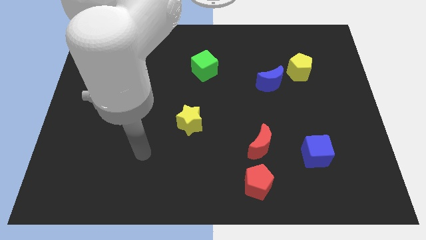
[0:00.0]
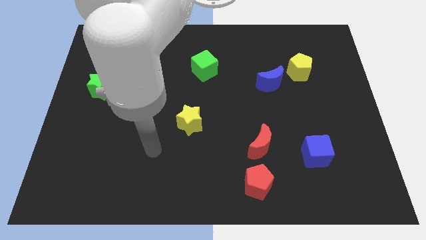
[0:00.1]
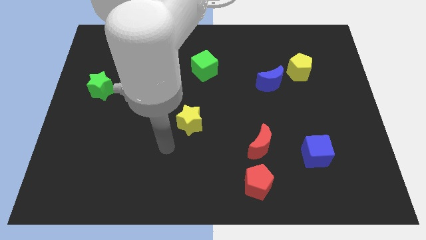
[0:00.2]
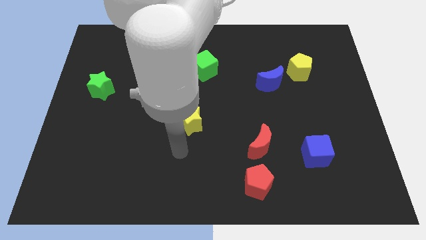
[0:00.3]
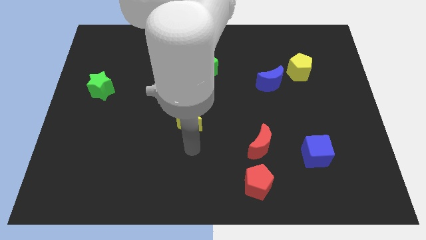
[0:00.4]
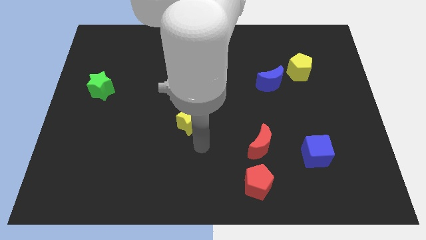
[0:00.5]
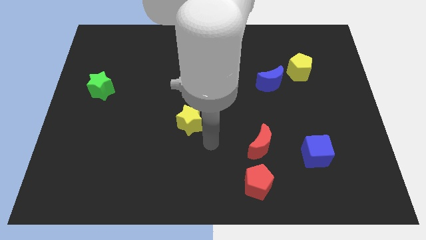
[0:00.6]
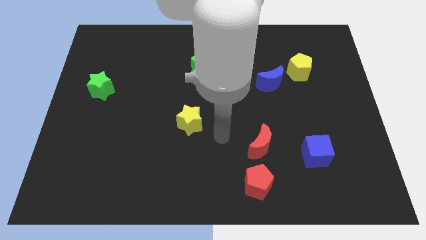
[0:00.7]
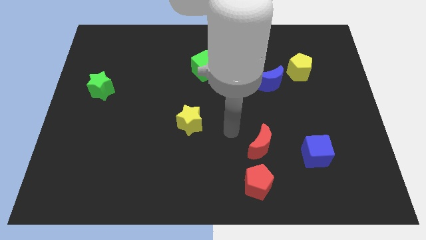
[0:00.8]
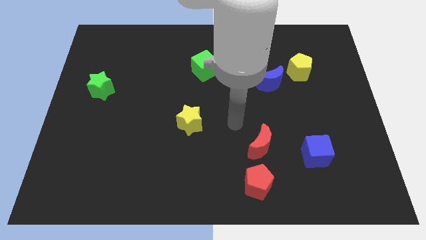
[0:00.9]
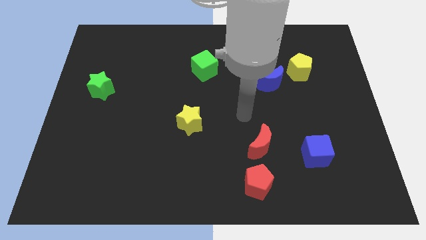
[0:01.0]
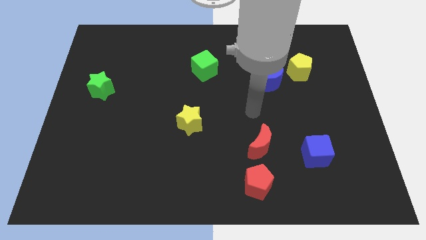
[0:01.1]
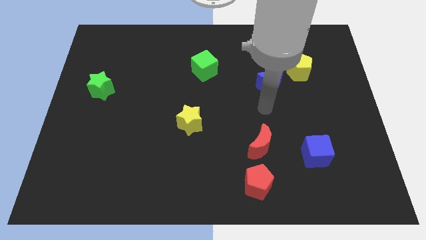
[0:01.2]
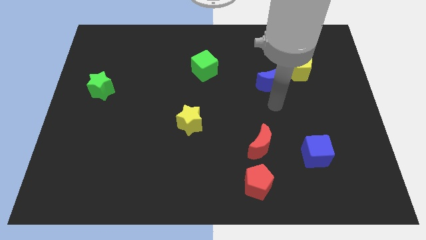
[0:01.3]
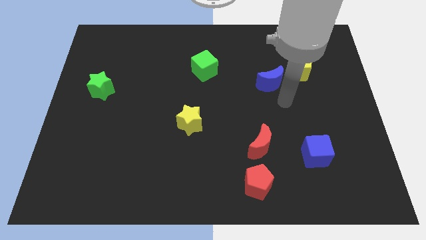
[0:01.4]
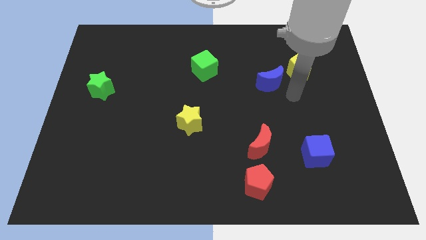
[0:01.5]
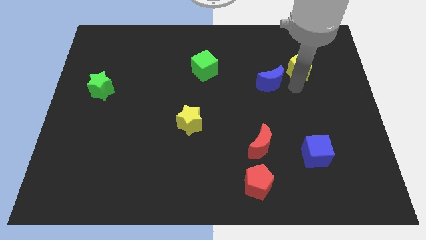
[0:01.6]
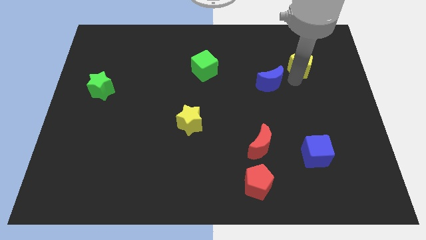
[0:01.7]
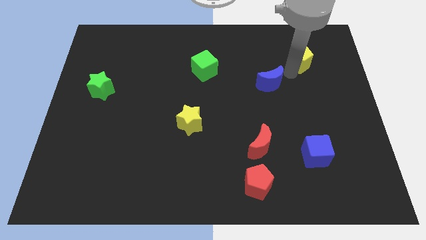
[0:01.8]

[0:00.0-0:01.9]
pull the blue moon apart from the yellow pentagon

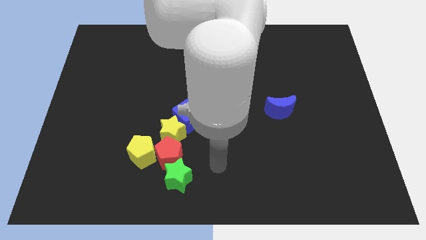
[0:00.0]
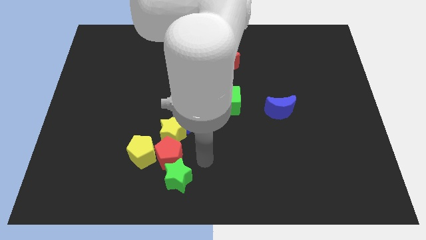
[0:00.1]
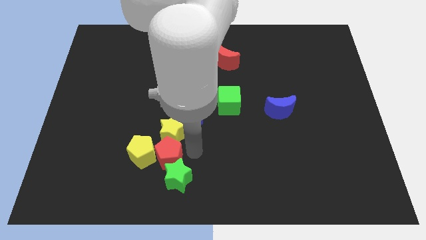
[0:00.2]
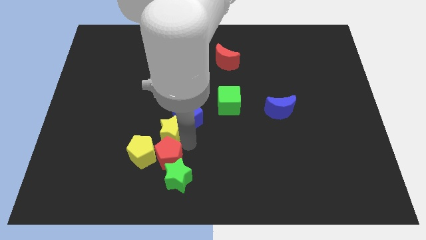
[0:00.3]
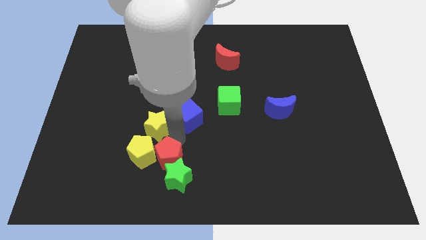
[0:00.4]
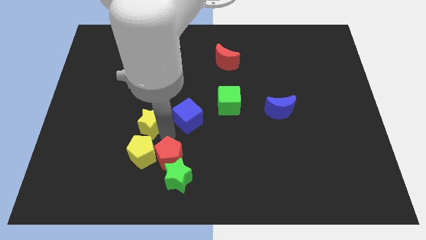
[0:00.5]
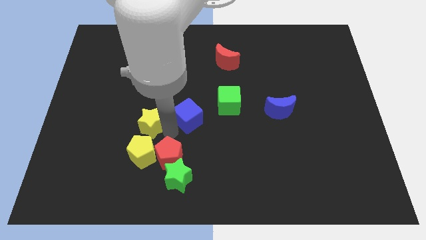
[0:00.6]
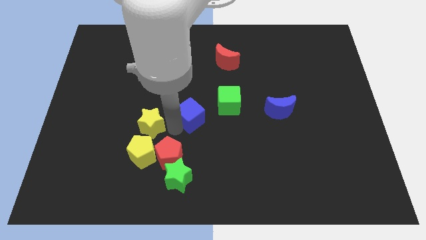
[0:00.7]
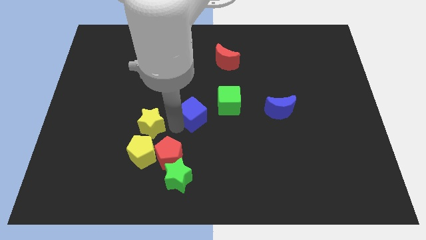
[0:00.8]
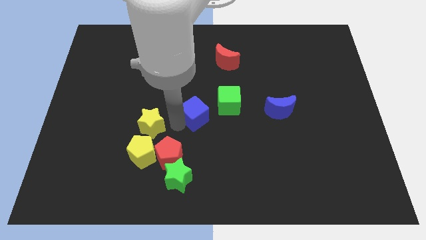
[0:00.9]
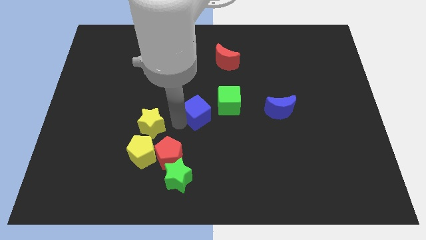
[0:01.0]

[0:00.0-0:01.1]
move the blue cube away from the yellow star

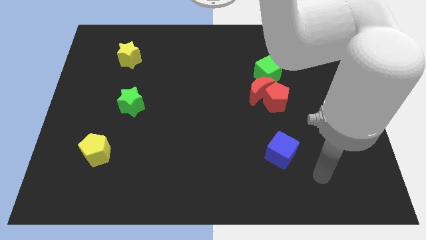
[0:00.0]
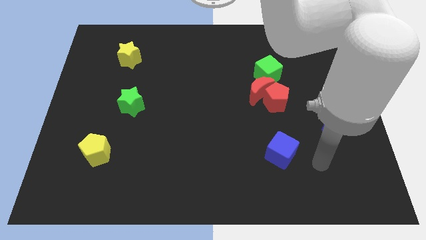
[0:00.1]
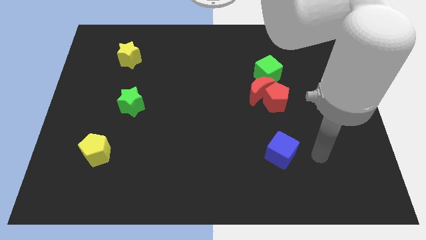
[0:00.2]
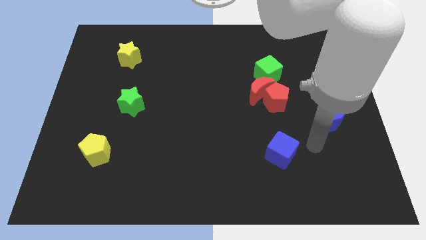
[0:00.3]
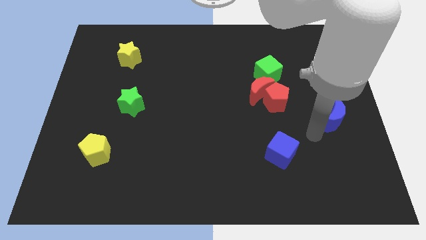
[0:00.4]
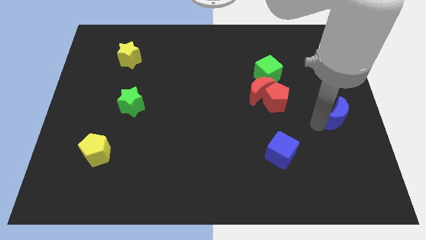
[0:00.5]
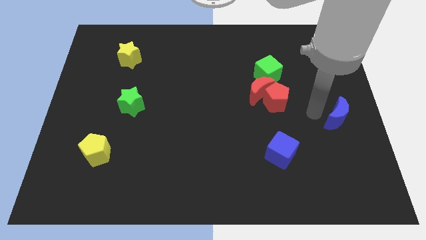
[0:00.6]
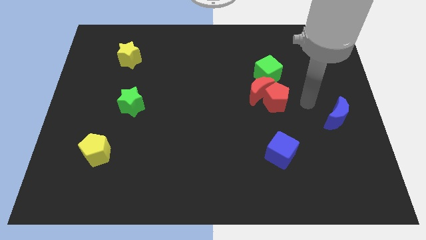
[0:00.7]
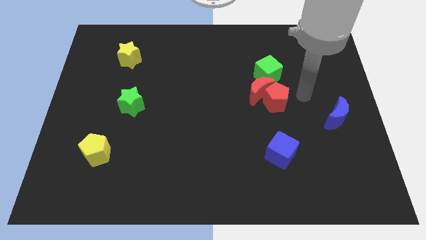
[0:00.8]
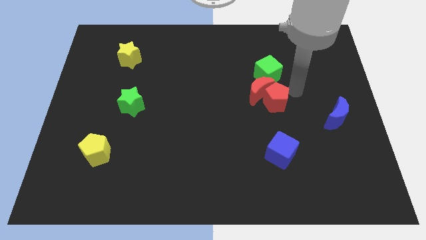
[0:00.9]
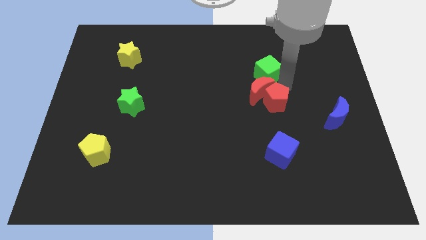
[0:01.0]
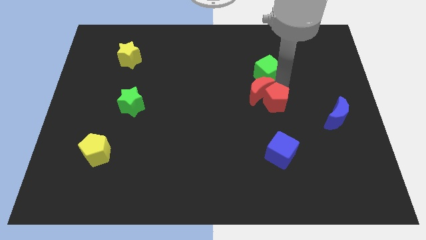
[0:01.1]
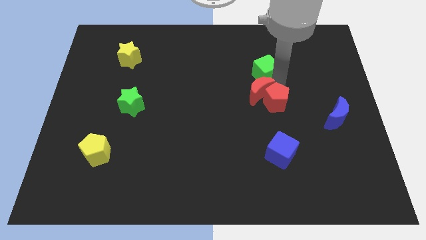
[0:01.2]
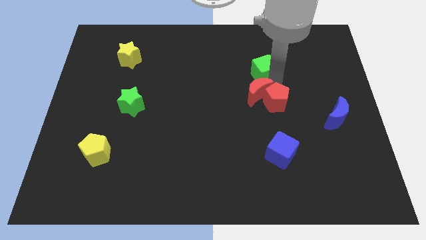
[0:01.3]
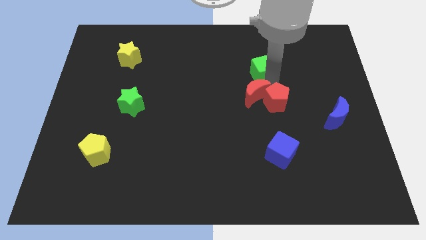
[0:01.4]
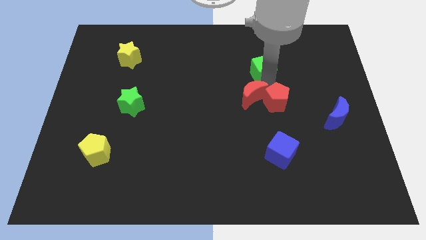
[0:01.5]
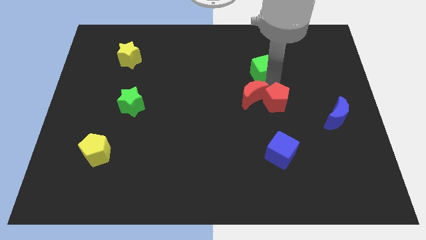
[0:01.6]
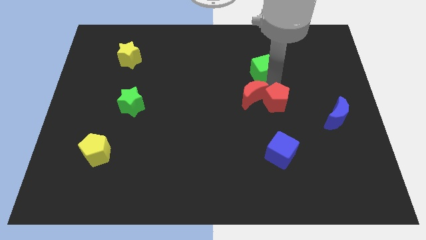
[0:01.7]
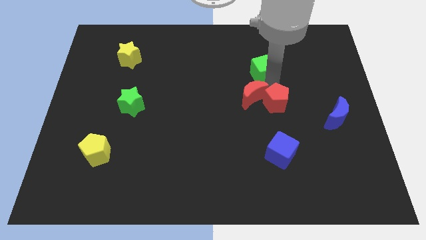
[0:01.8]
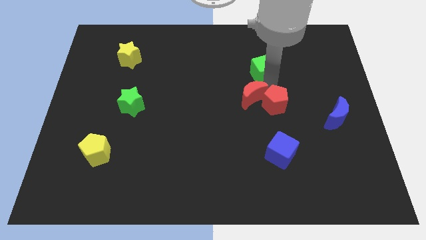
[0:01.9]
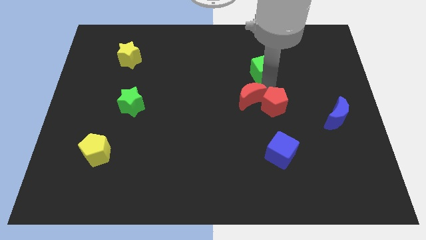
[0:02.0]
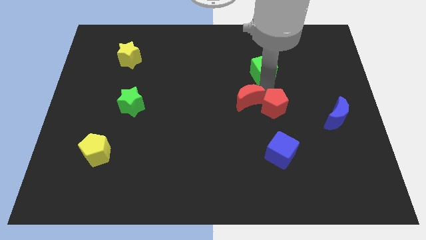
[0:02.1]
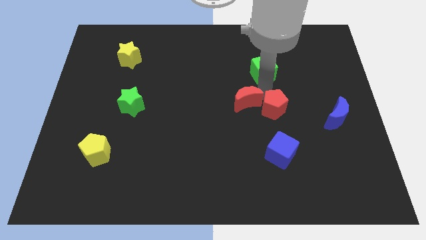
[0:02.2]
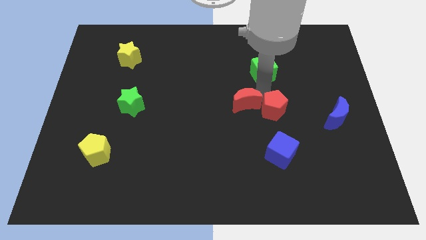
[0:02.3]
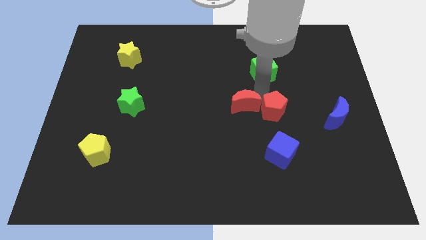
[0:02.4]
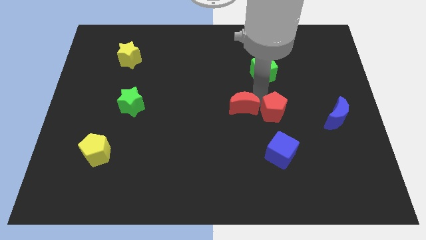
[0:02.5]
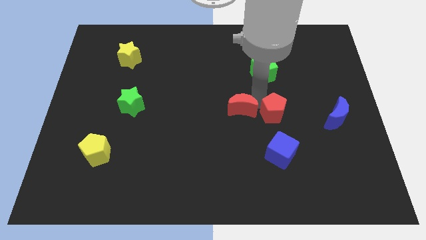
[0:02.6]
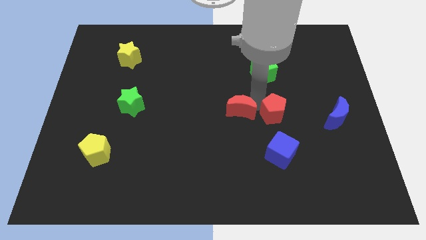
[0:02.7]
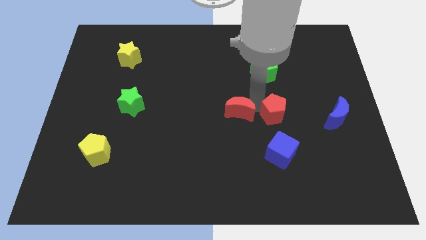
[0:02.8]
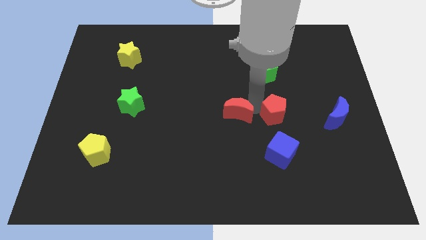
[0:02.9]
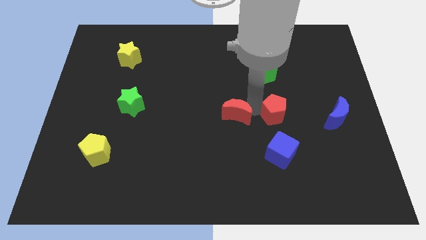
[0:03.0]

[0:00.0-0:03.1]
separate the red moon from the red pentagon and green cube

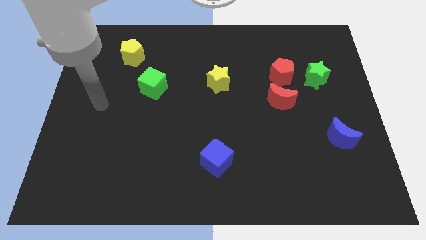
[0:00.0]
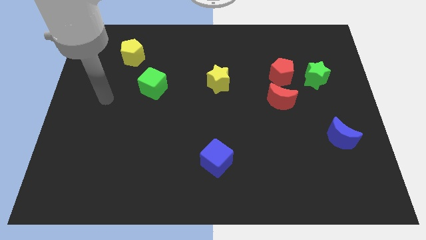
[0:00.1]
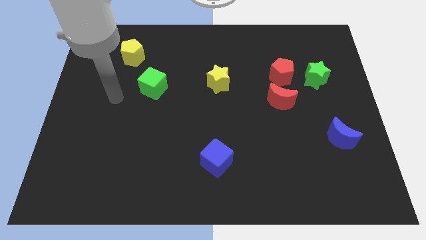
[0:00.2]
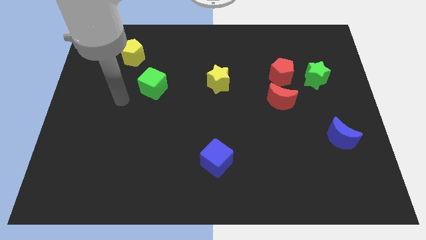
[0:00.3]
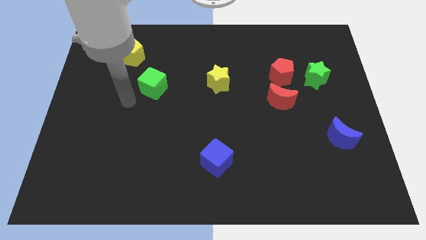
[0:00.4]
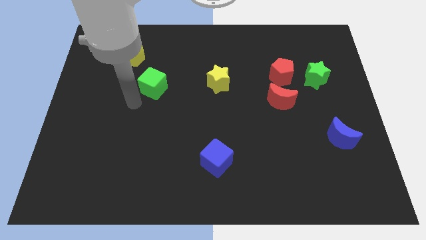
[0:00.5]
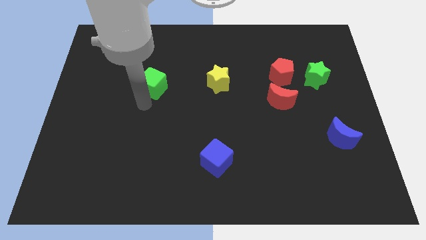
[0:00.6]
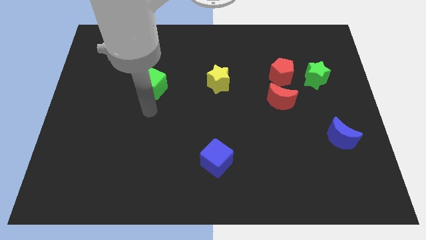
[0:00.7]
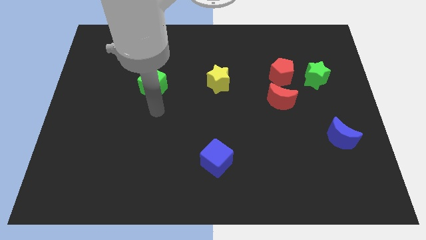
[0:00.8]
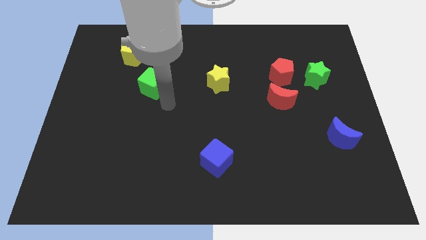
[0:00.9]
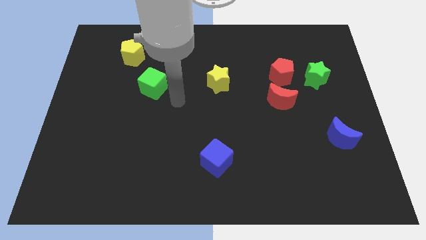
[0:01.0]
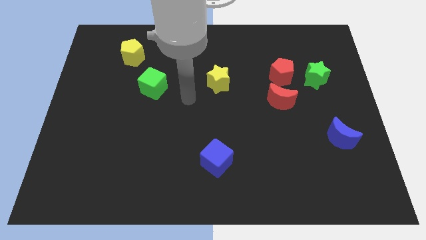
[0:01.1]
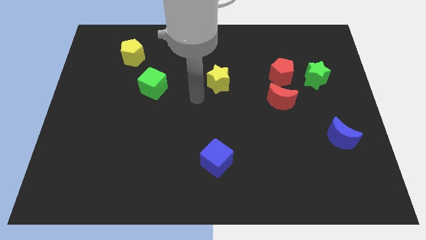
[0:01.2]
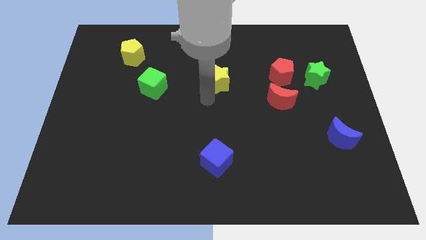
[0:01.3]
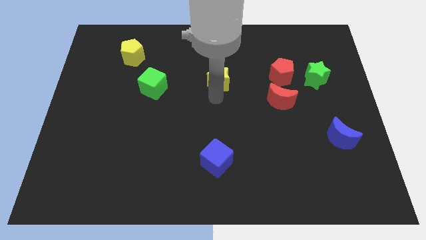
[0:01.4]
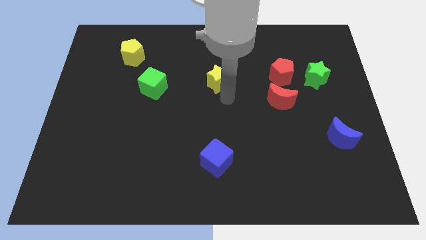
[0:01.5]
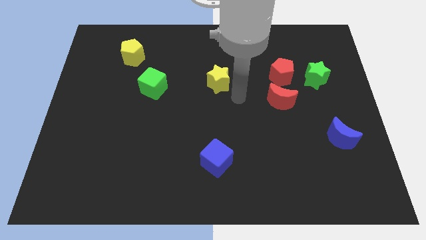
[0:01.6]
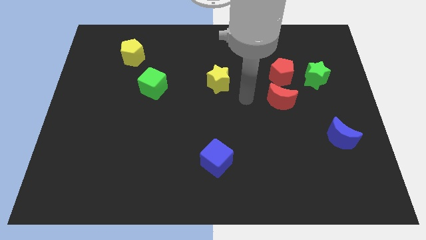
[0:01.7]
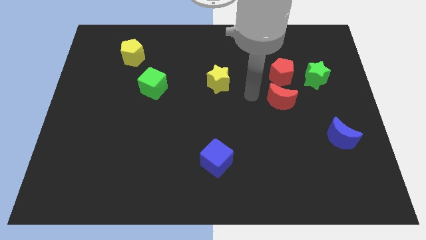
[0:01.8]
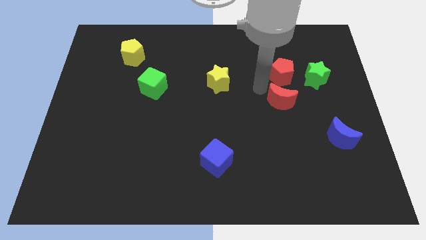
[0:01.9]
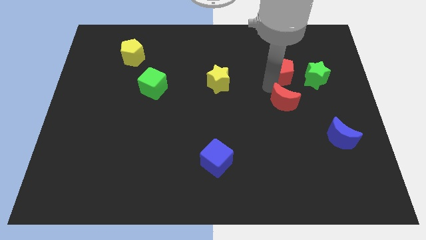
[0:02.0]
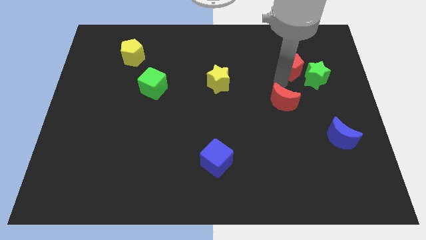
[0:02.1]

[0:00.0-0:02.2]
pull the red moon apart from the red pentagon

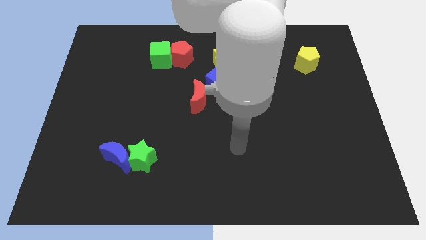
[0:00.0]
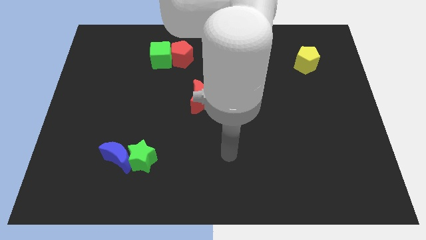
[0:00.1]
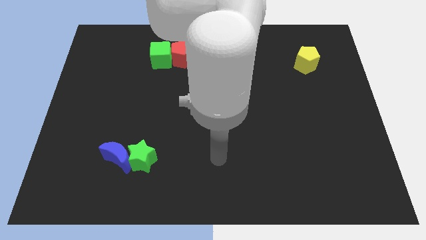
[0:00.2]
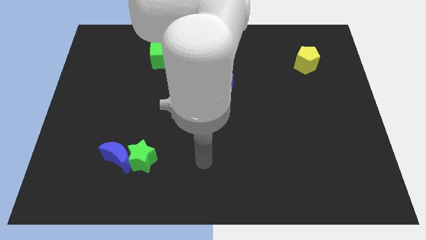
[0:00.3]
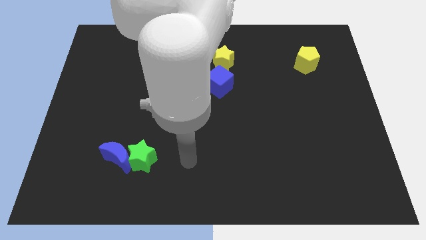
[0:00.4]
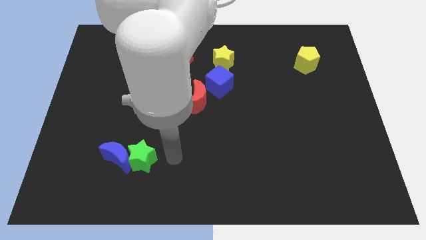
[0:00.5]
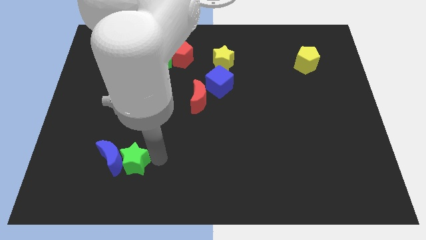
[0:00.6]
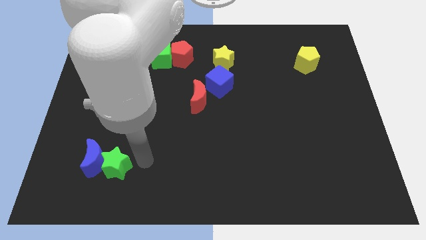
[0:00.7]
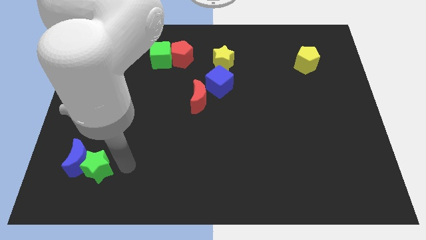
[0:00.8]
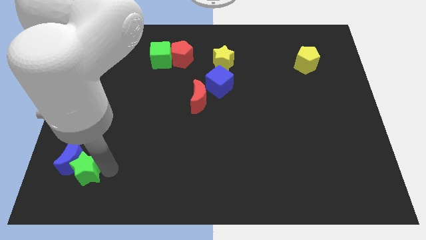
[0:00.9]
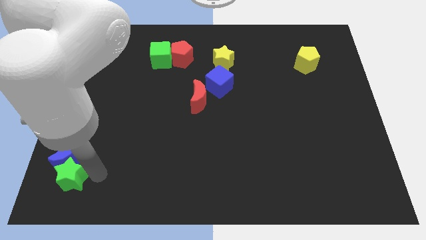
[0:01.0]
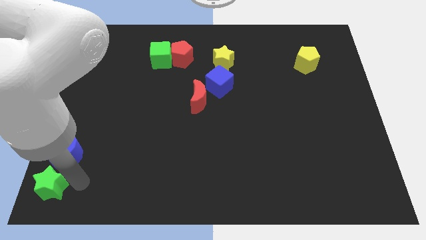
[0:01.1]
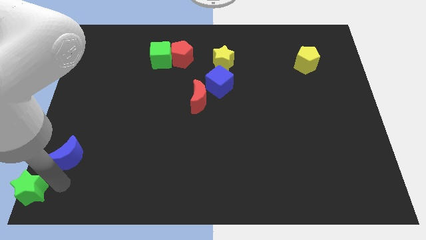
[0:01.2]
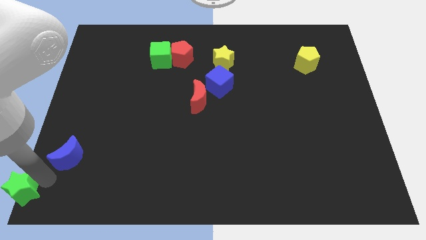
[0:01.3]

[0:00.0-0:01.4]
move the blue moon away from the green star
